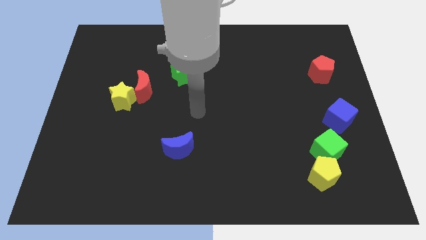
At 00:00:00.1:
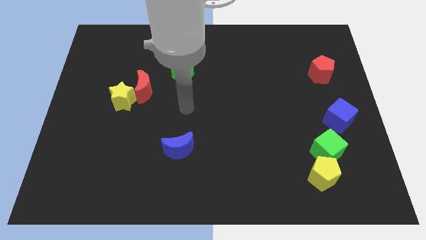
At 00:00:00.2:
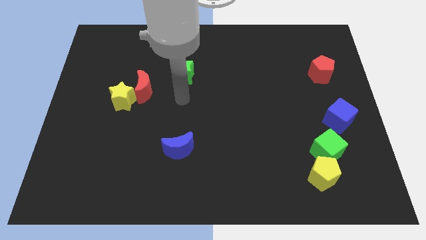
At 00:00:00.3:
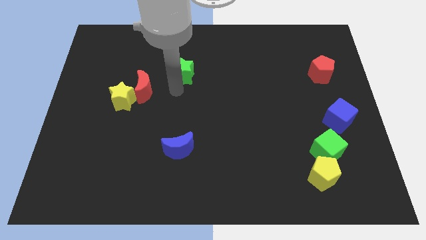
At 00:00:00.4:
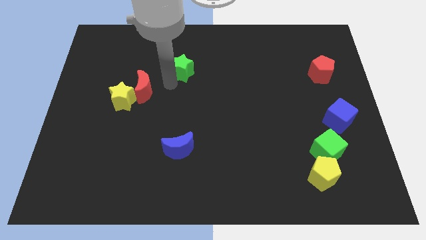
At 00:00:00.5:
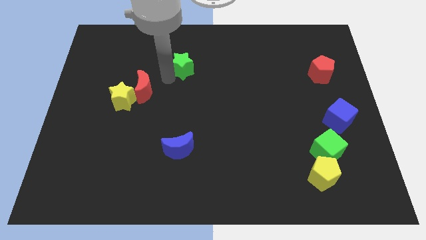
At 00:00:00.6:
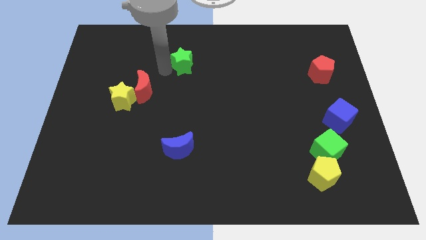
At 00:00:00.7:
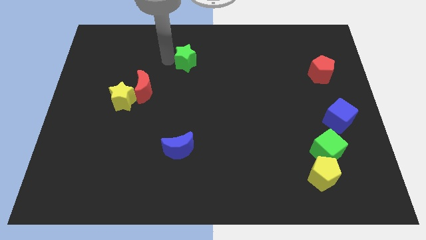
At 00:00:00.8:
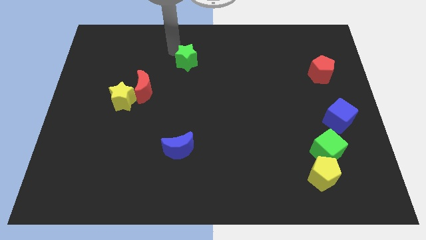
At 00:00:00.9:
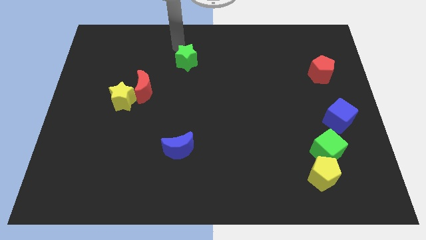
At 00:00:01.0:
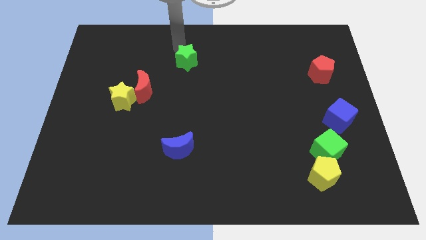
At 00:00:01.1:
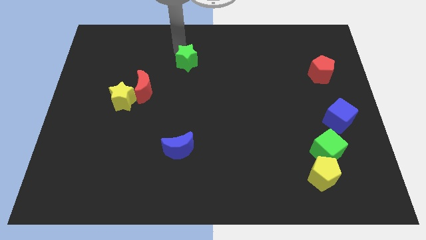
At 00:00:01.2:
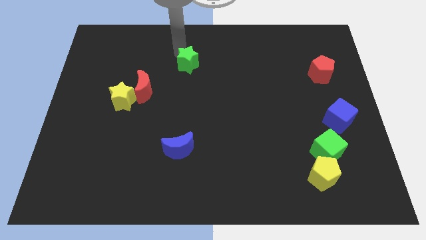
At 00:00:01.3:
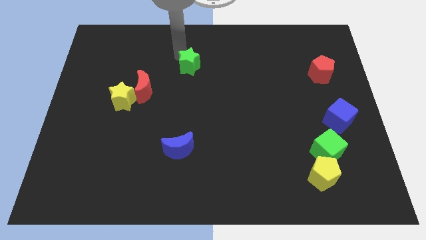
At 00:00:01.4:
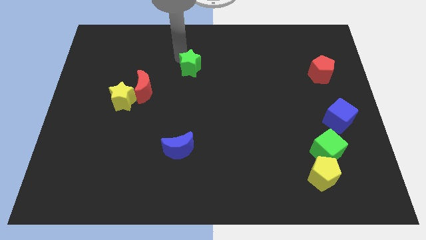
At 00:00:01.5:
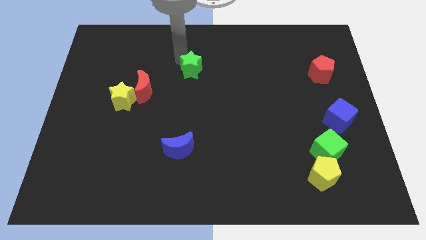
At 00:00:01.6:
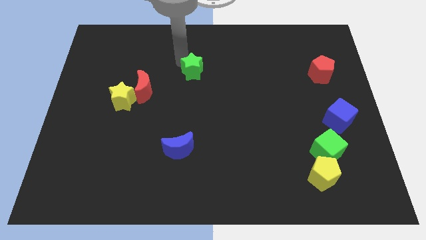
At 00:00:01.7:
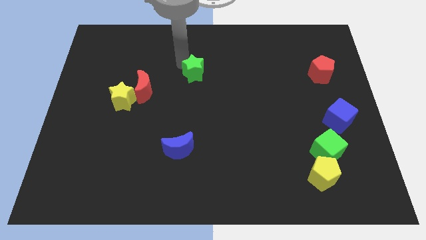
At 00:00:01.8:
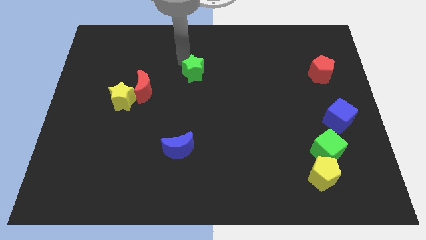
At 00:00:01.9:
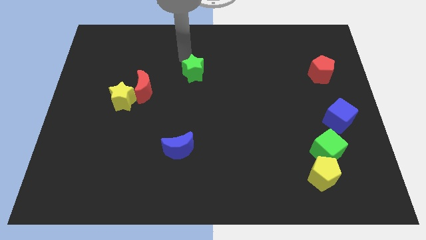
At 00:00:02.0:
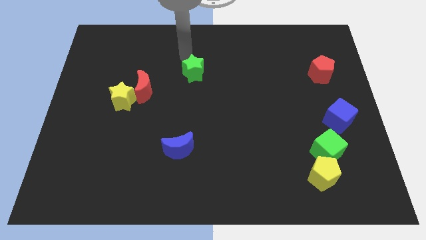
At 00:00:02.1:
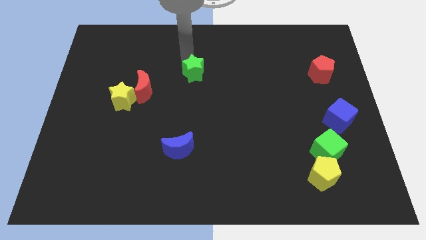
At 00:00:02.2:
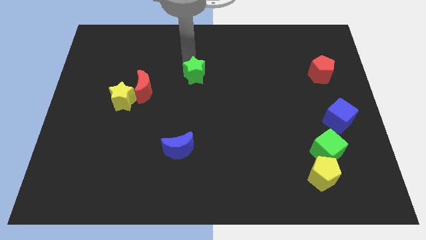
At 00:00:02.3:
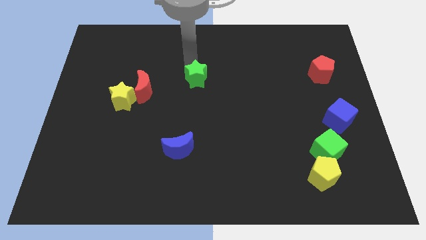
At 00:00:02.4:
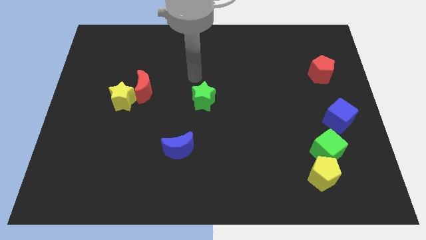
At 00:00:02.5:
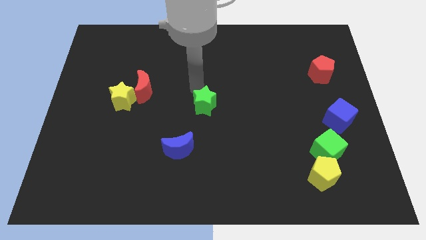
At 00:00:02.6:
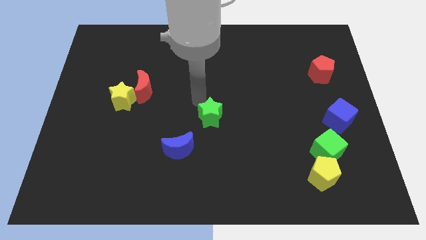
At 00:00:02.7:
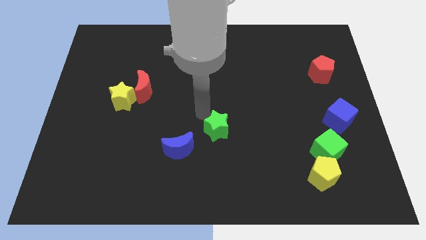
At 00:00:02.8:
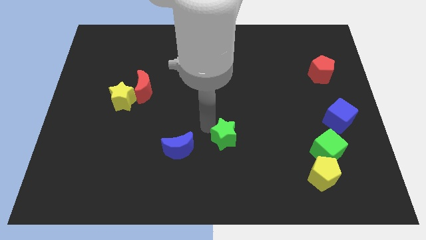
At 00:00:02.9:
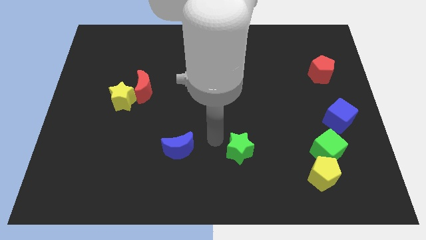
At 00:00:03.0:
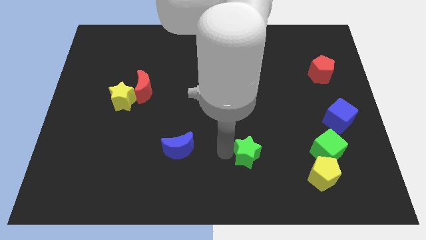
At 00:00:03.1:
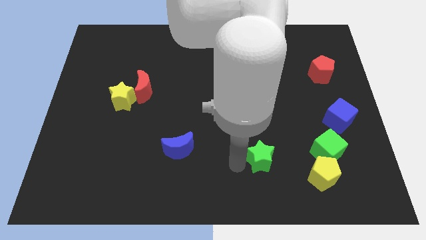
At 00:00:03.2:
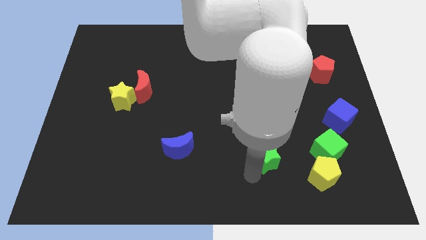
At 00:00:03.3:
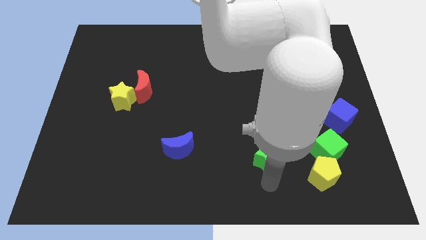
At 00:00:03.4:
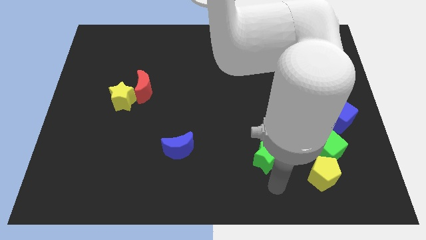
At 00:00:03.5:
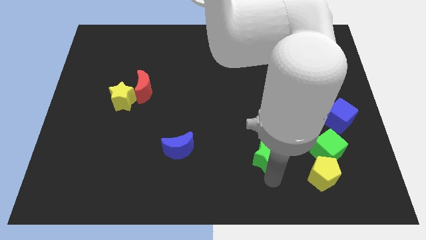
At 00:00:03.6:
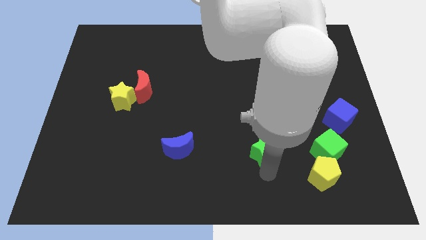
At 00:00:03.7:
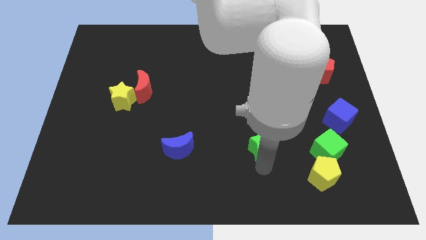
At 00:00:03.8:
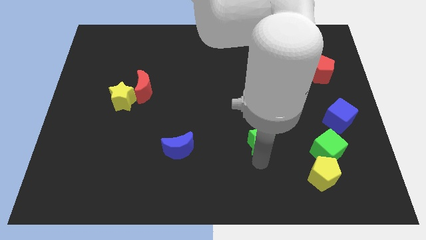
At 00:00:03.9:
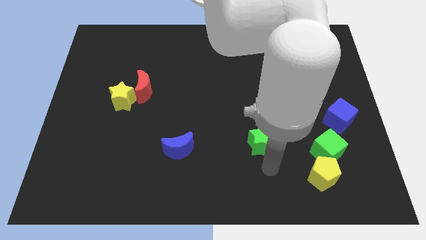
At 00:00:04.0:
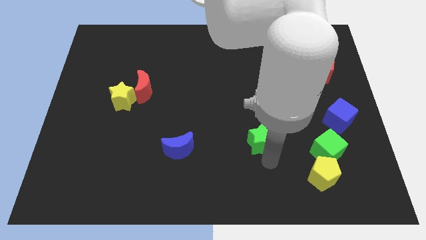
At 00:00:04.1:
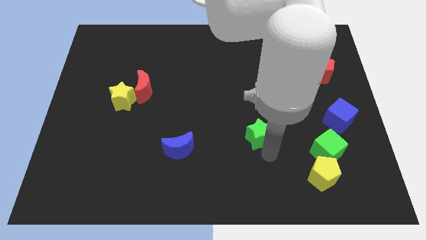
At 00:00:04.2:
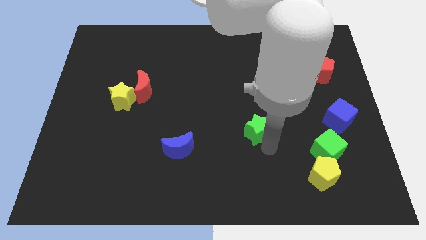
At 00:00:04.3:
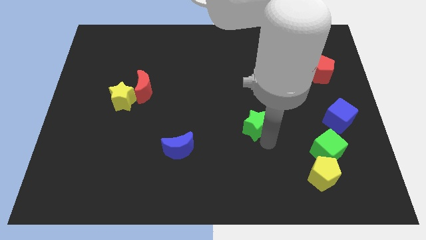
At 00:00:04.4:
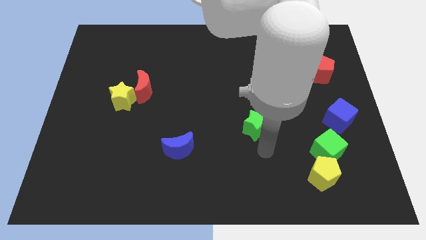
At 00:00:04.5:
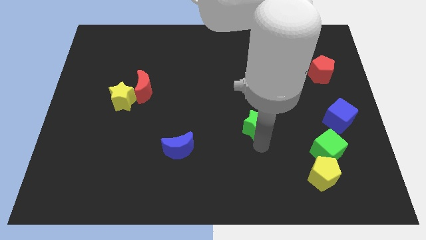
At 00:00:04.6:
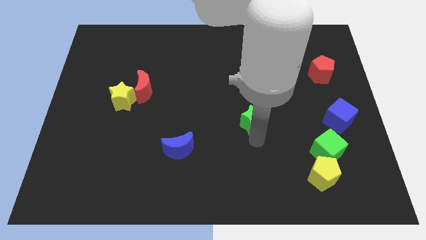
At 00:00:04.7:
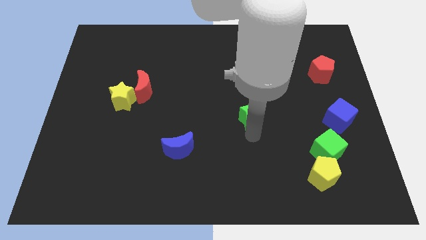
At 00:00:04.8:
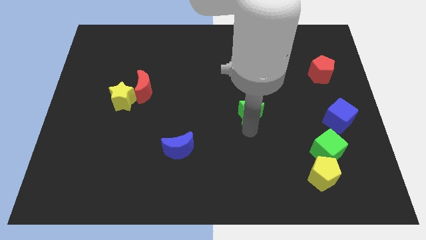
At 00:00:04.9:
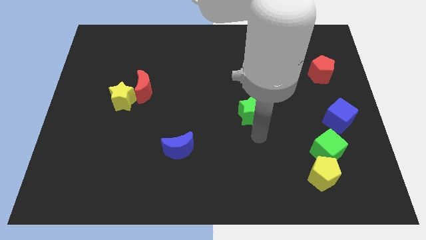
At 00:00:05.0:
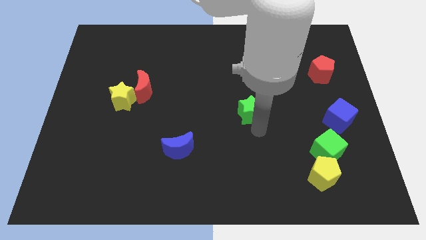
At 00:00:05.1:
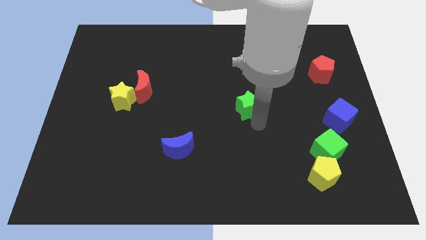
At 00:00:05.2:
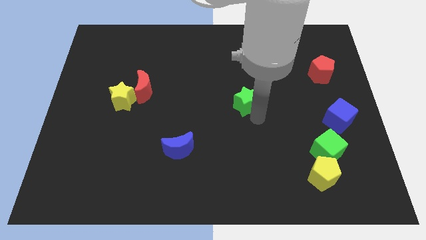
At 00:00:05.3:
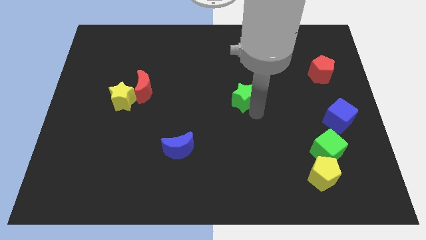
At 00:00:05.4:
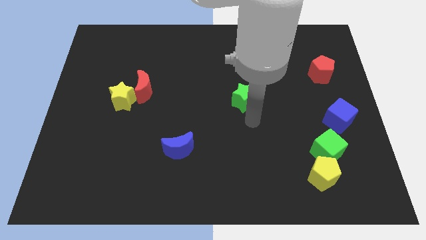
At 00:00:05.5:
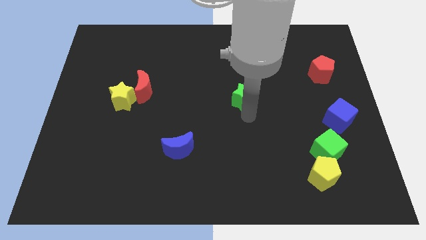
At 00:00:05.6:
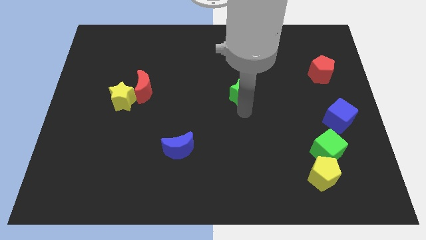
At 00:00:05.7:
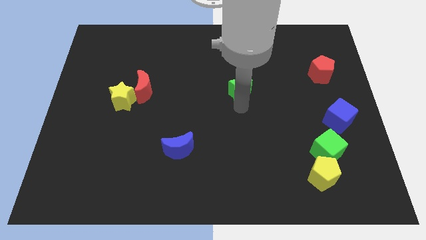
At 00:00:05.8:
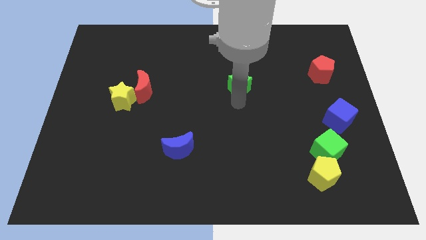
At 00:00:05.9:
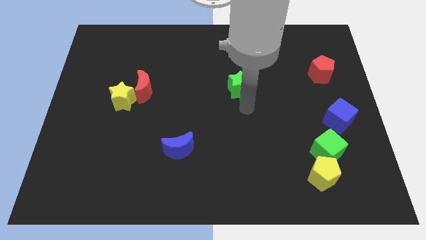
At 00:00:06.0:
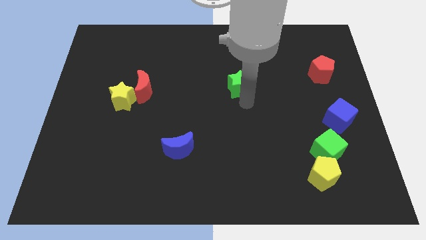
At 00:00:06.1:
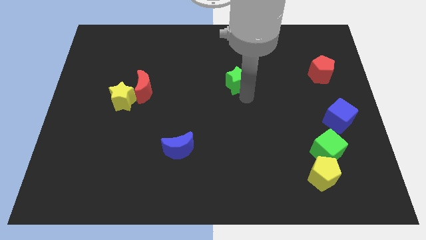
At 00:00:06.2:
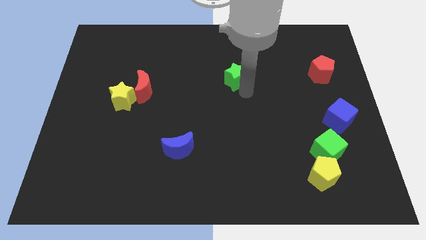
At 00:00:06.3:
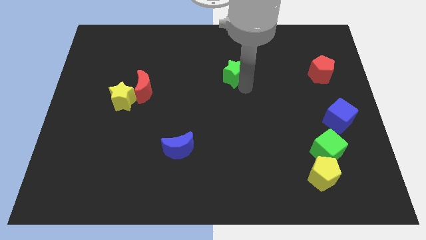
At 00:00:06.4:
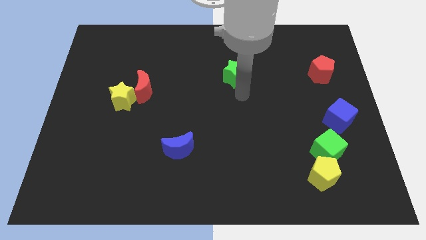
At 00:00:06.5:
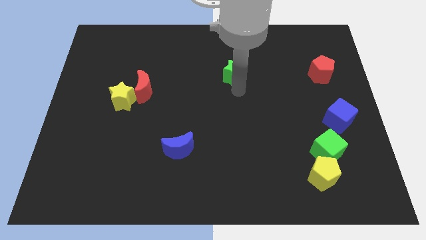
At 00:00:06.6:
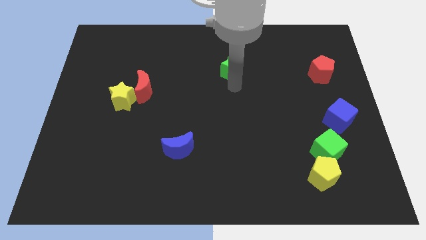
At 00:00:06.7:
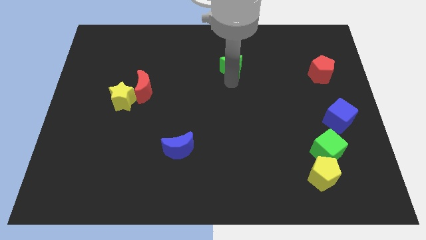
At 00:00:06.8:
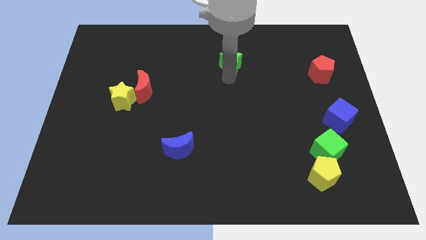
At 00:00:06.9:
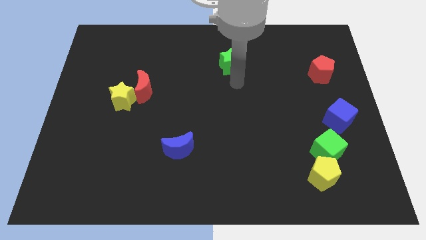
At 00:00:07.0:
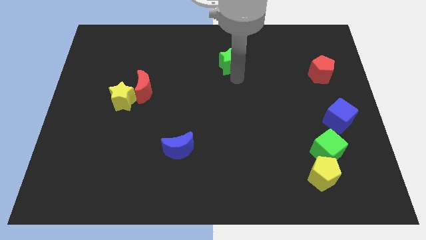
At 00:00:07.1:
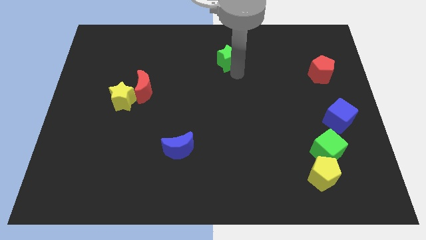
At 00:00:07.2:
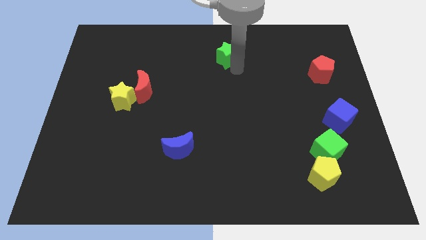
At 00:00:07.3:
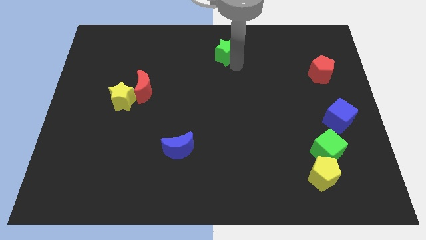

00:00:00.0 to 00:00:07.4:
put the green star to the top
